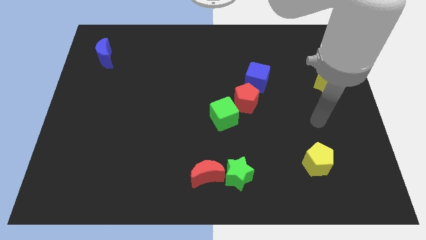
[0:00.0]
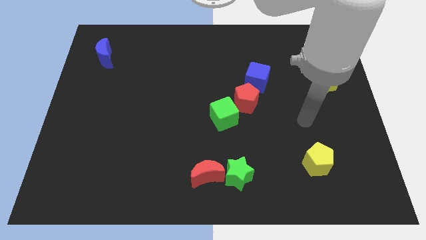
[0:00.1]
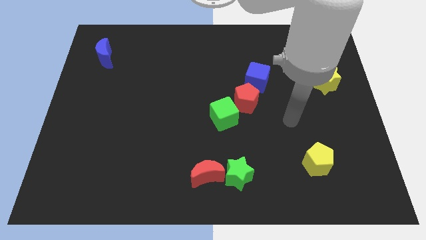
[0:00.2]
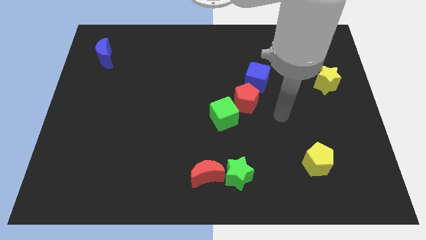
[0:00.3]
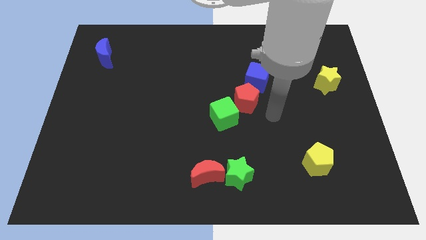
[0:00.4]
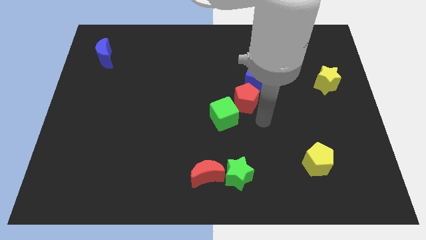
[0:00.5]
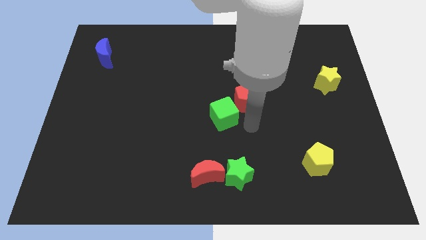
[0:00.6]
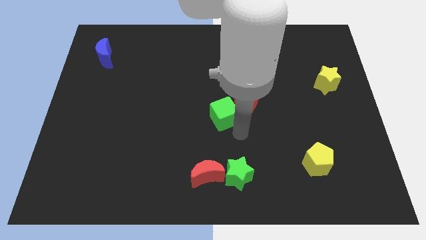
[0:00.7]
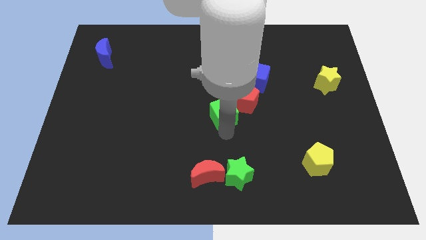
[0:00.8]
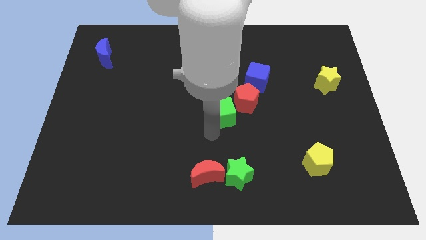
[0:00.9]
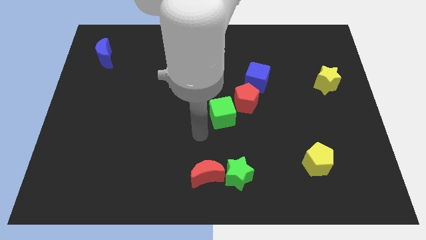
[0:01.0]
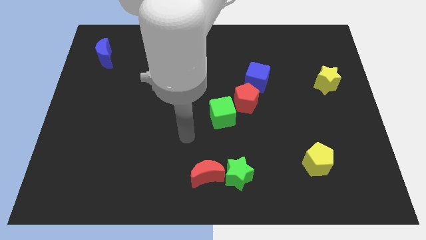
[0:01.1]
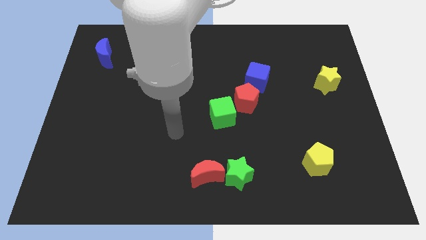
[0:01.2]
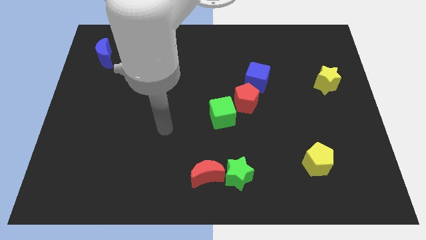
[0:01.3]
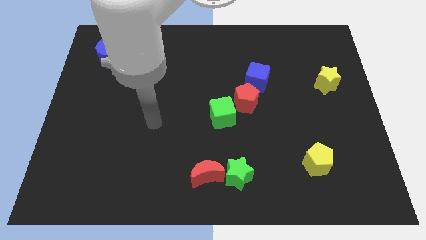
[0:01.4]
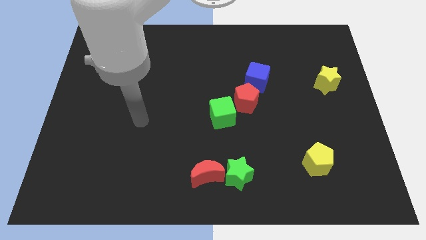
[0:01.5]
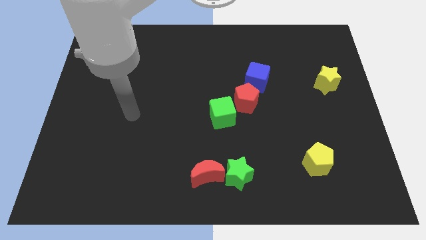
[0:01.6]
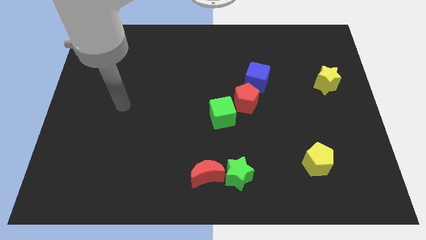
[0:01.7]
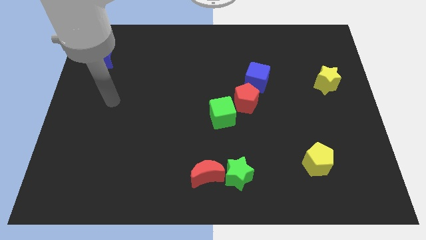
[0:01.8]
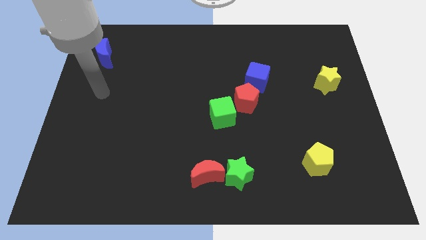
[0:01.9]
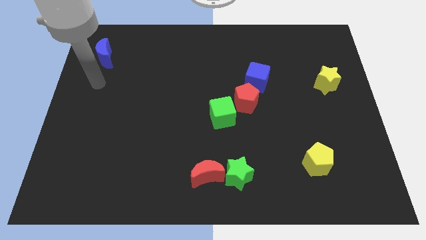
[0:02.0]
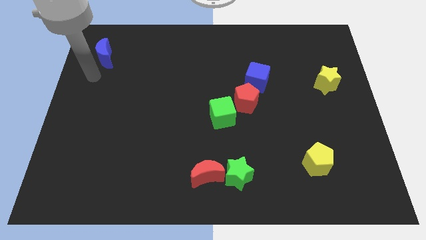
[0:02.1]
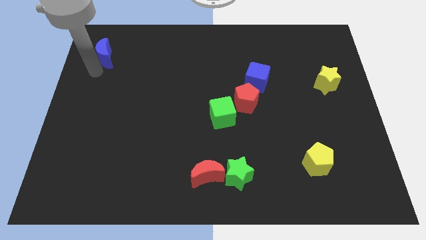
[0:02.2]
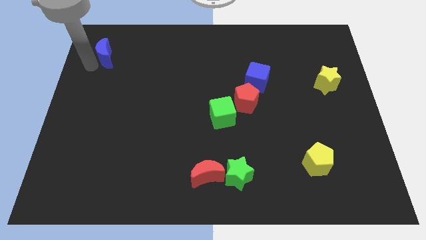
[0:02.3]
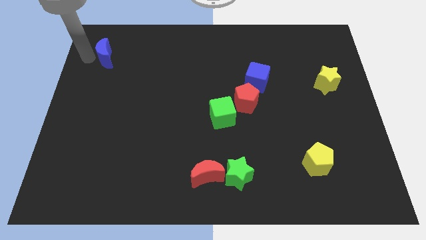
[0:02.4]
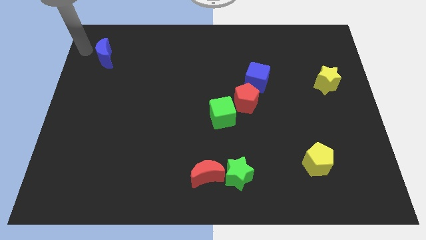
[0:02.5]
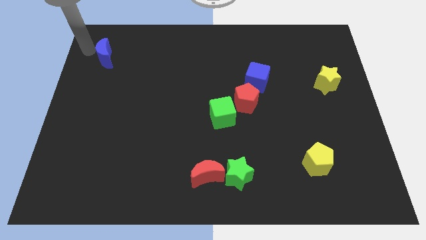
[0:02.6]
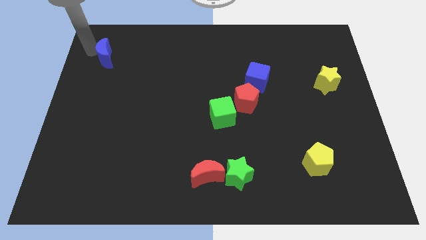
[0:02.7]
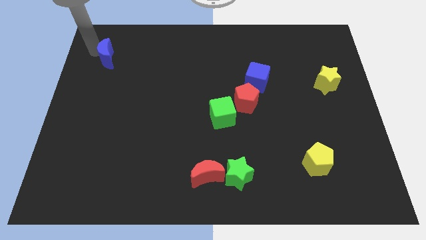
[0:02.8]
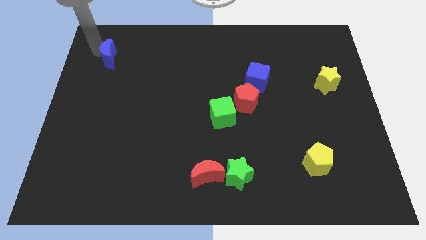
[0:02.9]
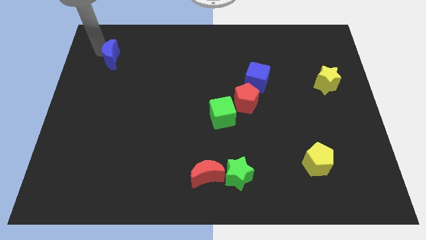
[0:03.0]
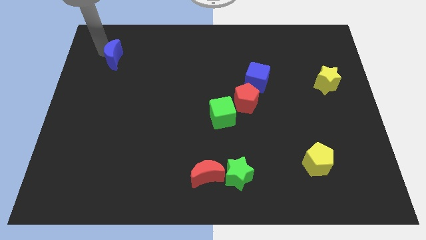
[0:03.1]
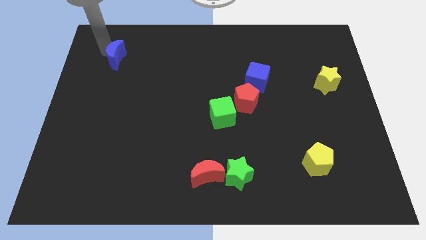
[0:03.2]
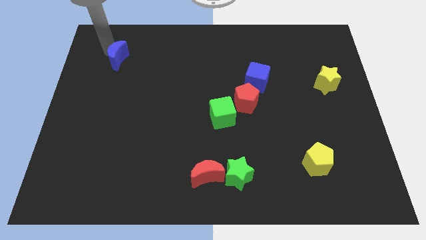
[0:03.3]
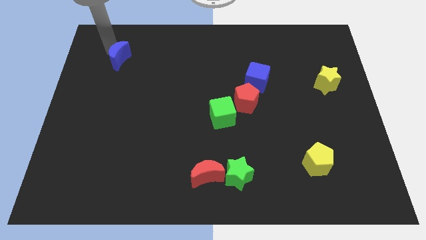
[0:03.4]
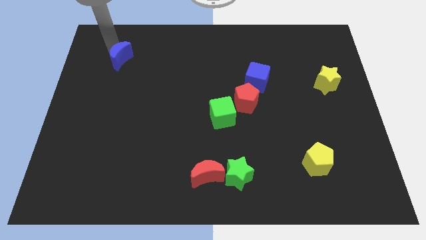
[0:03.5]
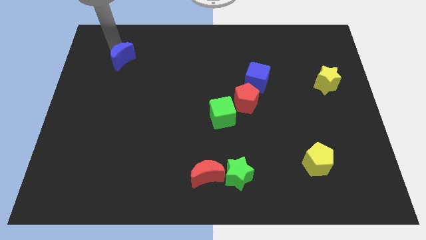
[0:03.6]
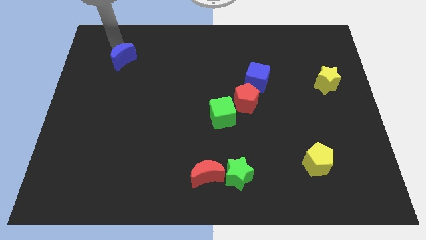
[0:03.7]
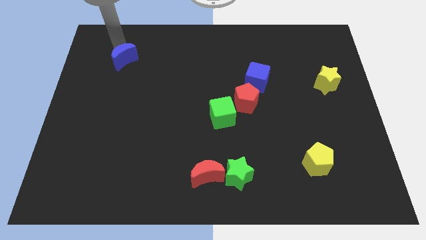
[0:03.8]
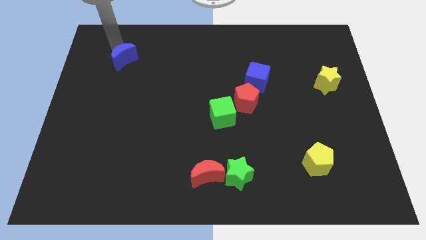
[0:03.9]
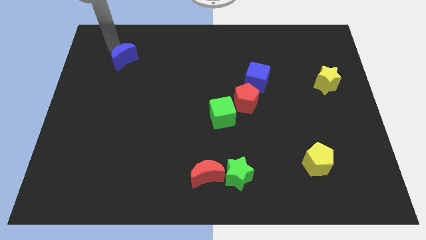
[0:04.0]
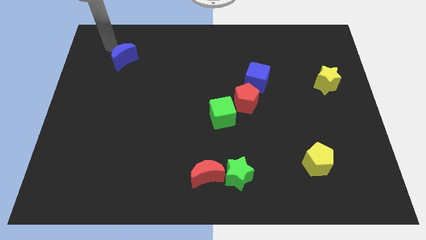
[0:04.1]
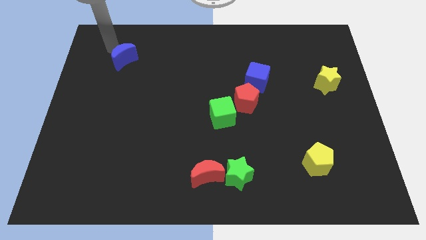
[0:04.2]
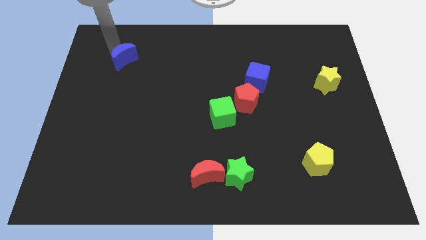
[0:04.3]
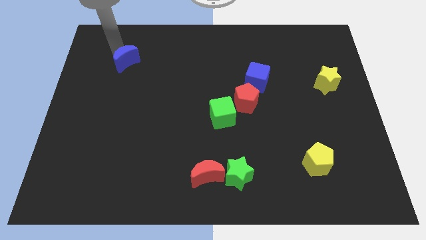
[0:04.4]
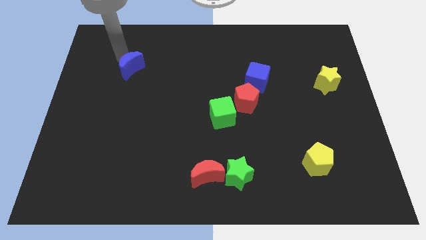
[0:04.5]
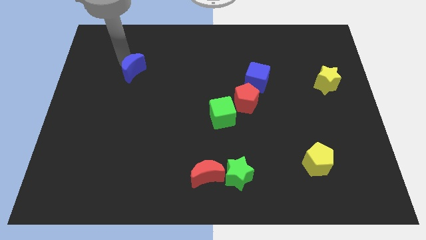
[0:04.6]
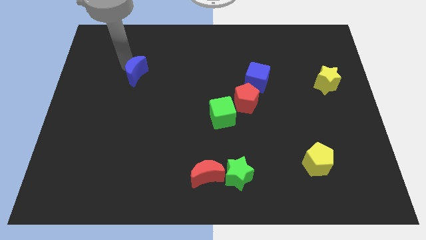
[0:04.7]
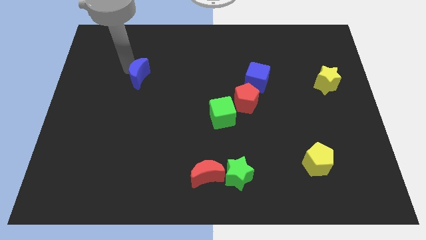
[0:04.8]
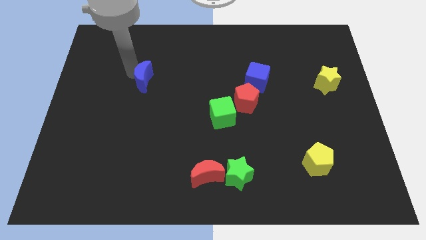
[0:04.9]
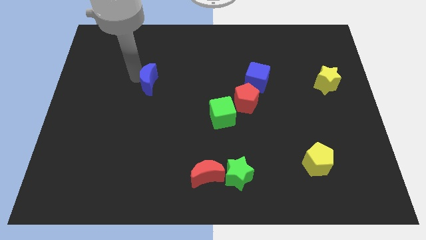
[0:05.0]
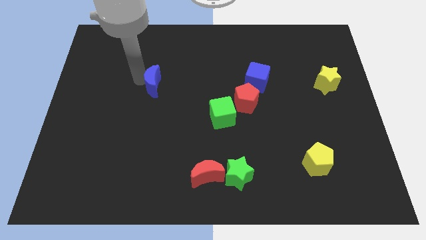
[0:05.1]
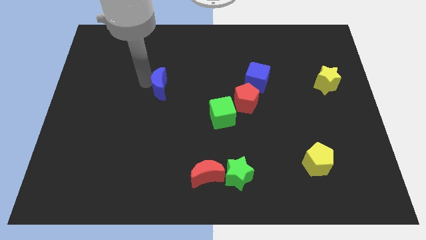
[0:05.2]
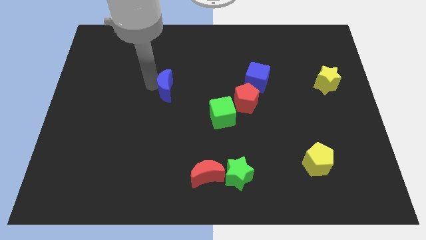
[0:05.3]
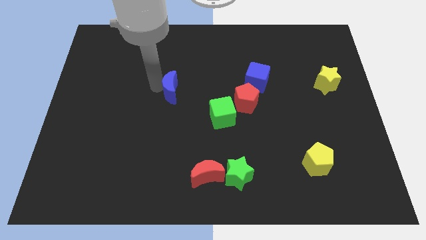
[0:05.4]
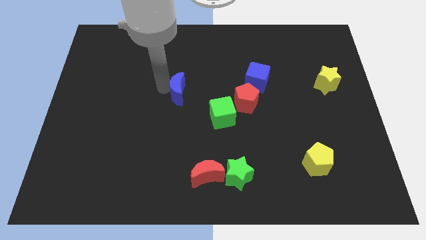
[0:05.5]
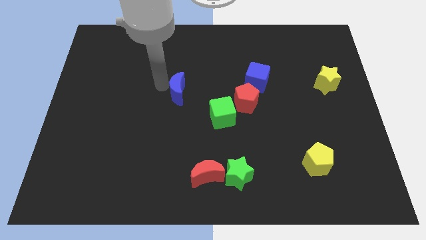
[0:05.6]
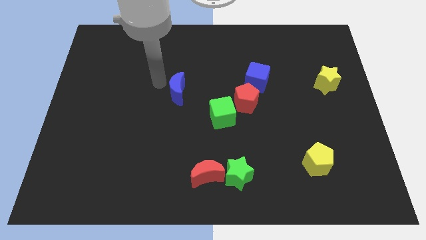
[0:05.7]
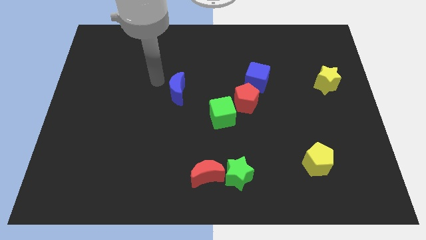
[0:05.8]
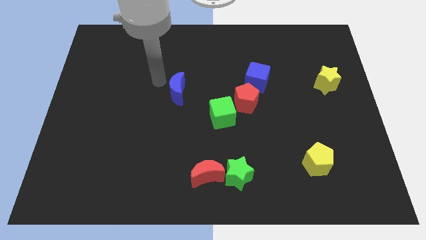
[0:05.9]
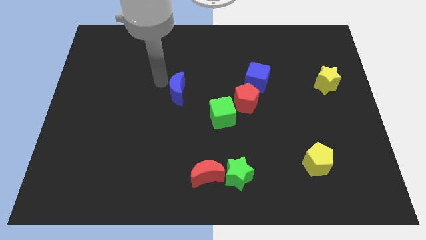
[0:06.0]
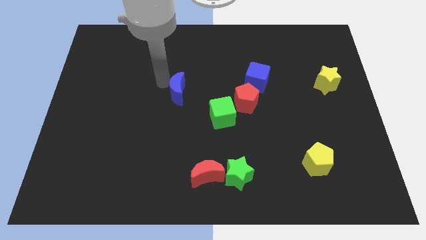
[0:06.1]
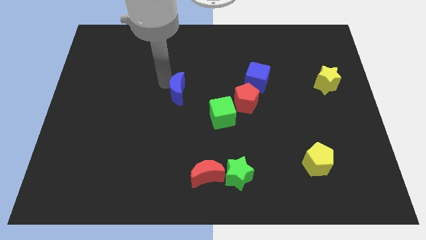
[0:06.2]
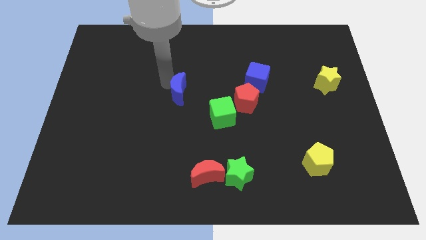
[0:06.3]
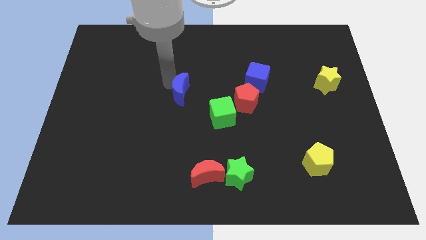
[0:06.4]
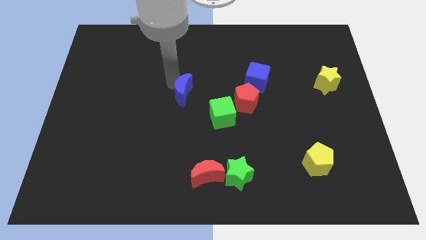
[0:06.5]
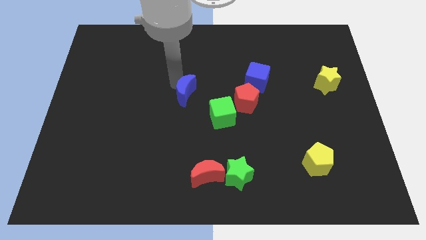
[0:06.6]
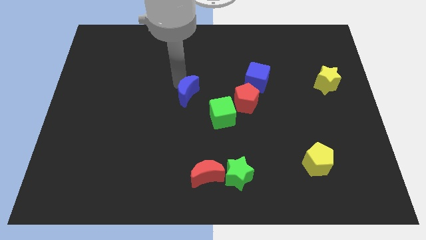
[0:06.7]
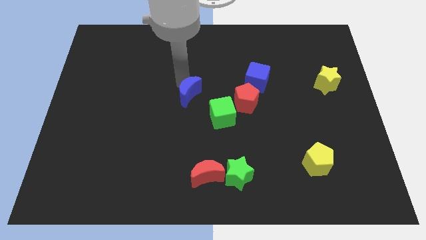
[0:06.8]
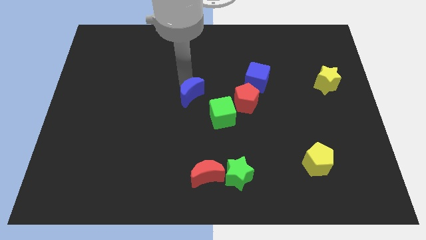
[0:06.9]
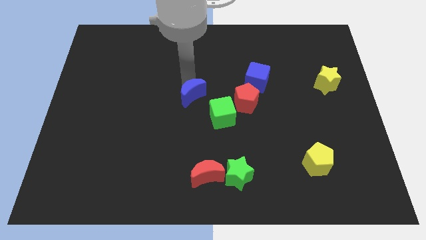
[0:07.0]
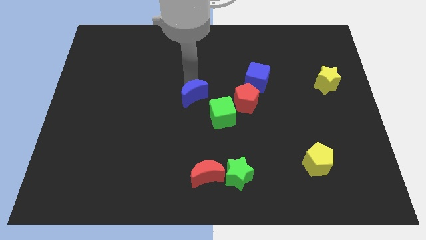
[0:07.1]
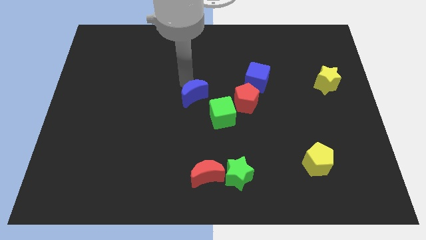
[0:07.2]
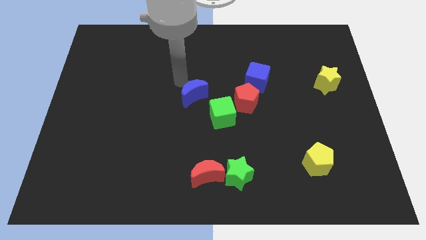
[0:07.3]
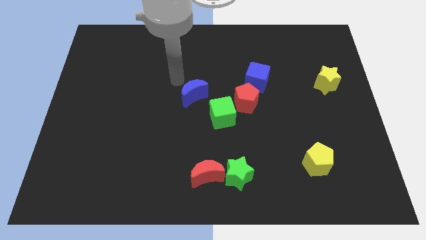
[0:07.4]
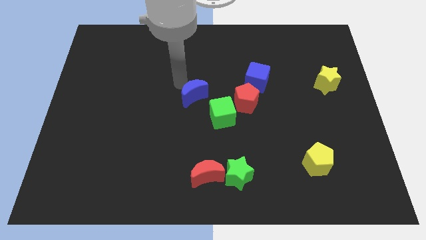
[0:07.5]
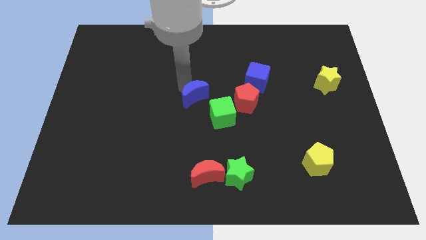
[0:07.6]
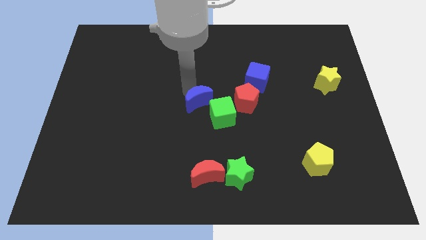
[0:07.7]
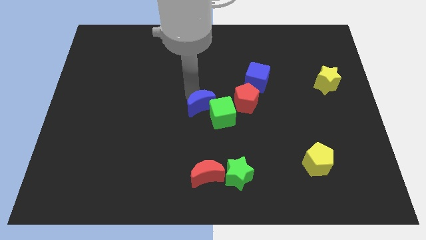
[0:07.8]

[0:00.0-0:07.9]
move the blue moon next to the green cube
